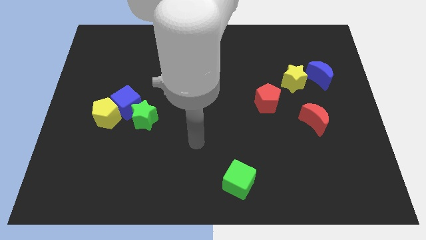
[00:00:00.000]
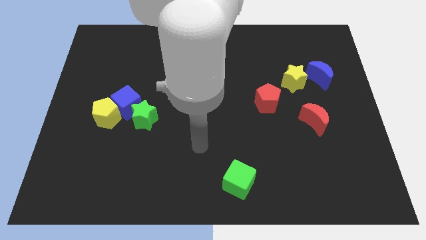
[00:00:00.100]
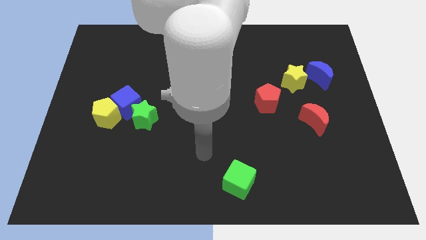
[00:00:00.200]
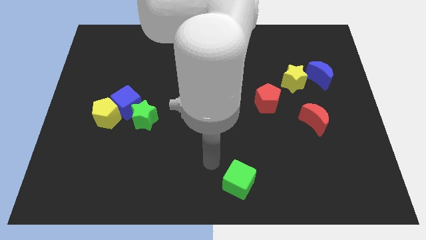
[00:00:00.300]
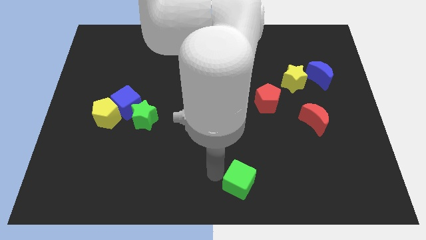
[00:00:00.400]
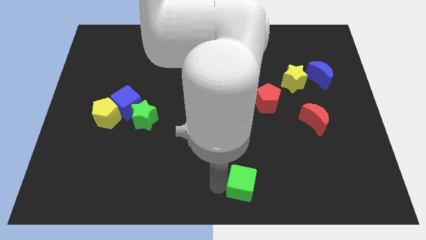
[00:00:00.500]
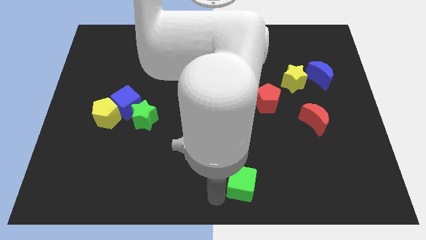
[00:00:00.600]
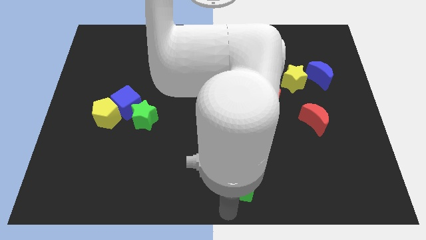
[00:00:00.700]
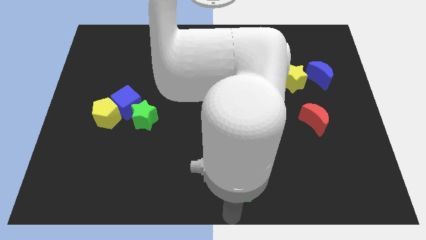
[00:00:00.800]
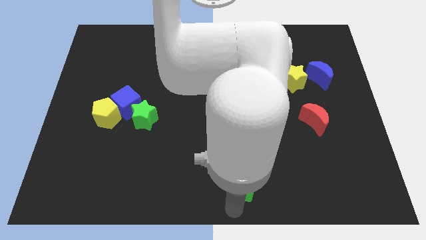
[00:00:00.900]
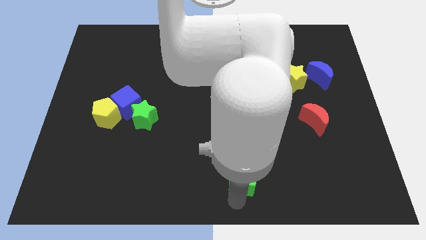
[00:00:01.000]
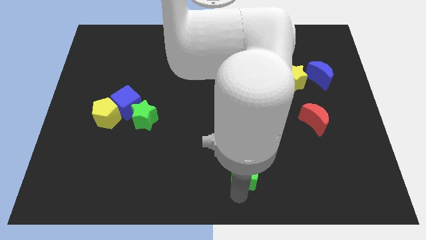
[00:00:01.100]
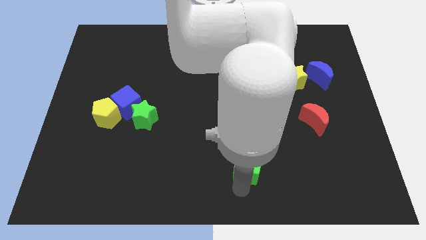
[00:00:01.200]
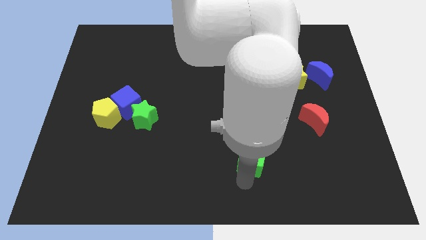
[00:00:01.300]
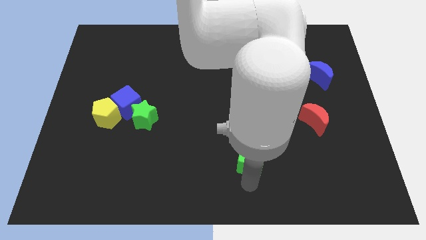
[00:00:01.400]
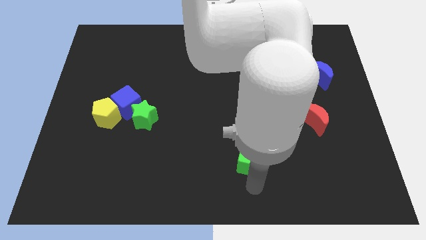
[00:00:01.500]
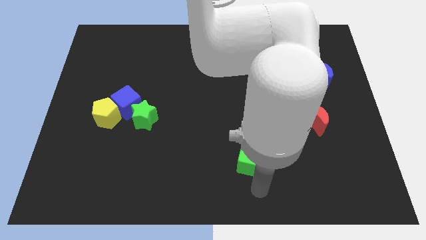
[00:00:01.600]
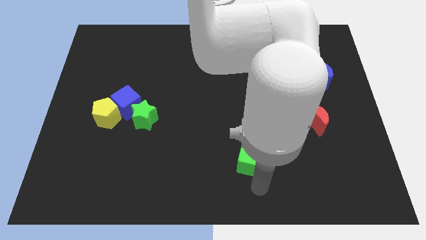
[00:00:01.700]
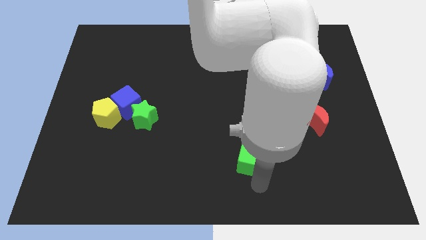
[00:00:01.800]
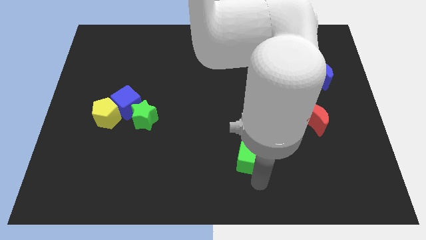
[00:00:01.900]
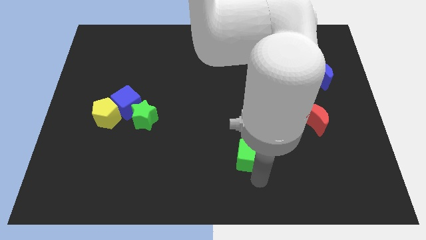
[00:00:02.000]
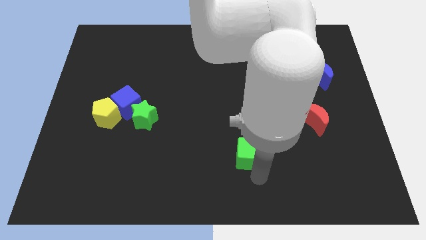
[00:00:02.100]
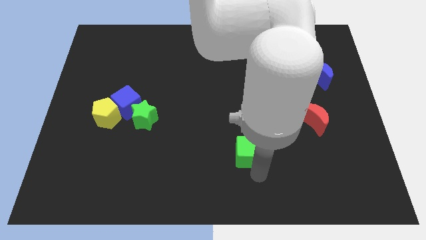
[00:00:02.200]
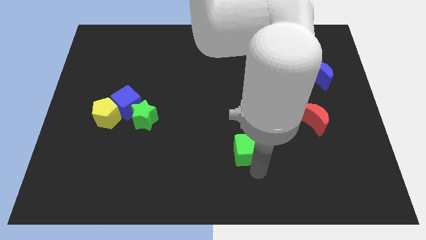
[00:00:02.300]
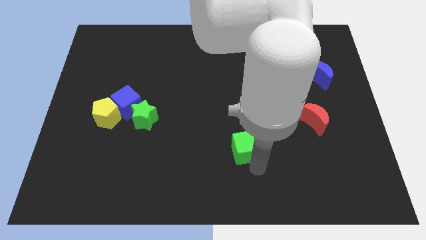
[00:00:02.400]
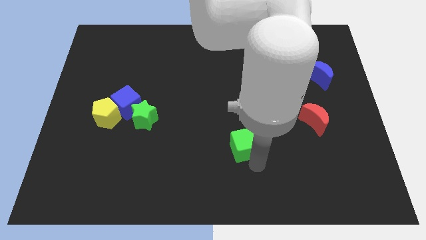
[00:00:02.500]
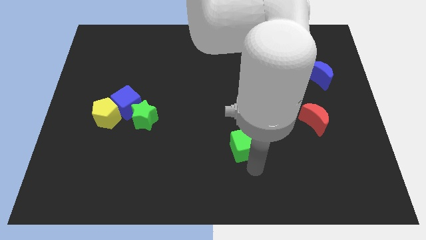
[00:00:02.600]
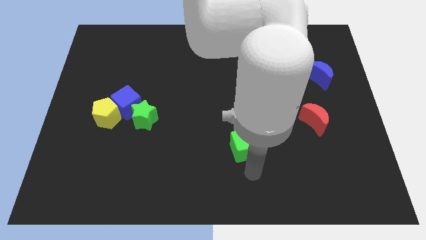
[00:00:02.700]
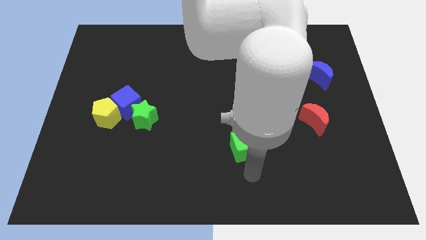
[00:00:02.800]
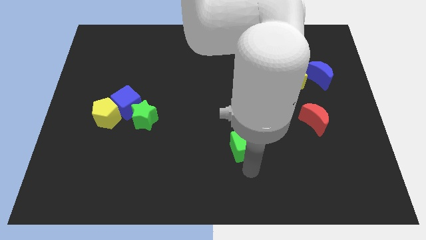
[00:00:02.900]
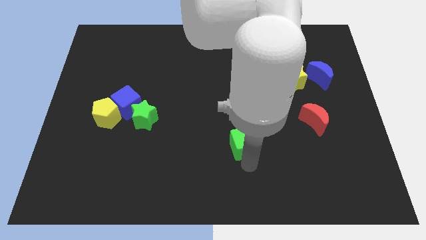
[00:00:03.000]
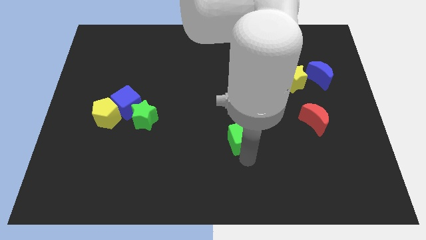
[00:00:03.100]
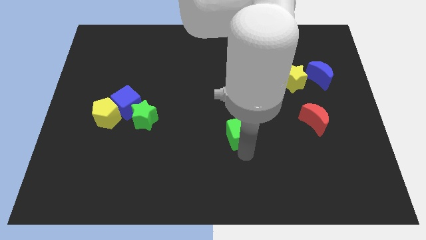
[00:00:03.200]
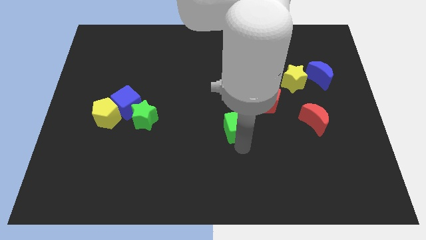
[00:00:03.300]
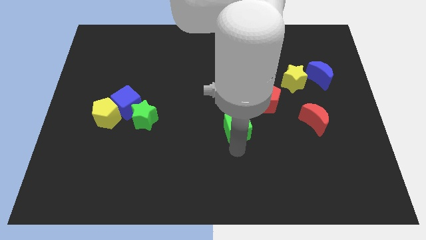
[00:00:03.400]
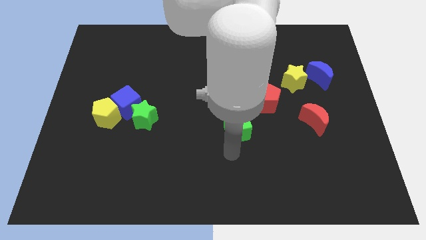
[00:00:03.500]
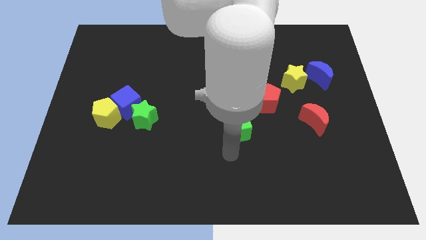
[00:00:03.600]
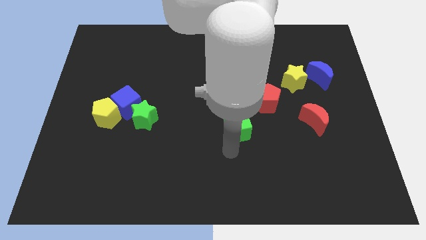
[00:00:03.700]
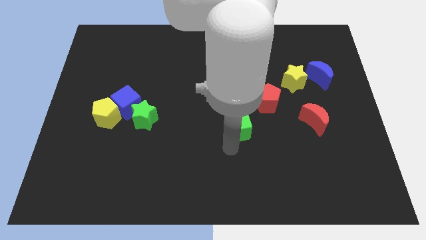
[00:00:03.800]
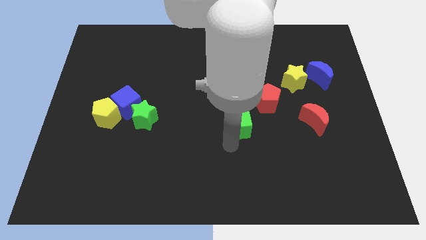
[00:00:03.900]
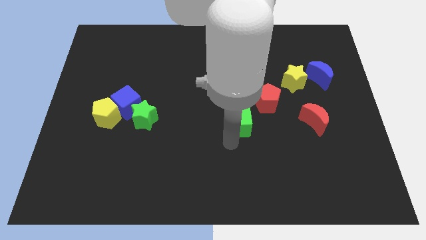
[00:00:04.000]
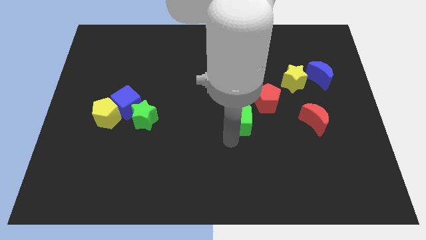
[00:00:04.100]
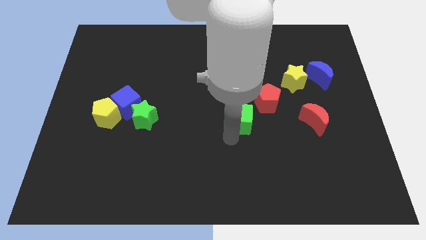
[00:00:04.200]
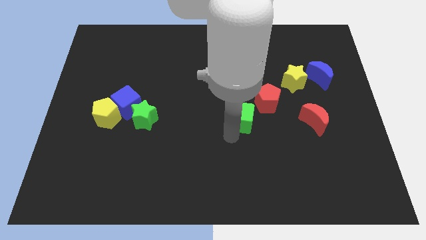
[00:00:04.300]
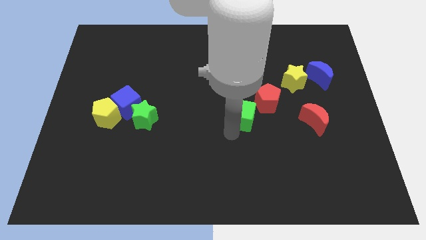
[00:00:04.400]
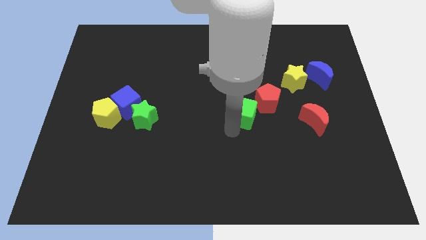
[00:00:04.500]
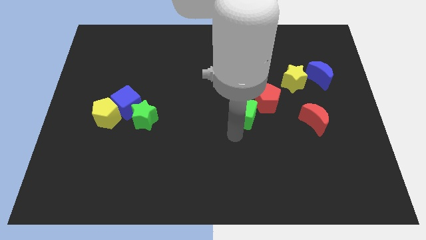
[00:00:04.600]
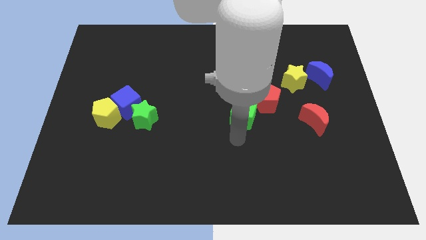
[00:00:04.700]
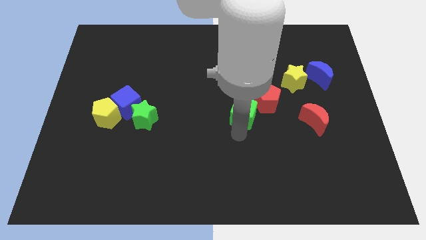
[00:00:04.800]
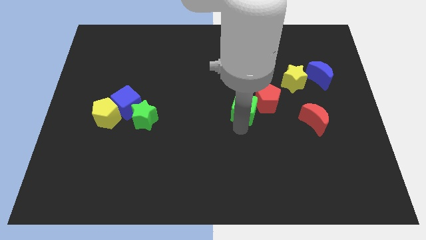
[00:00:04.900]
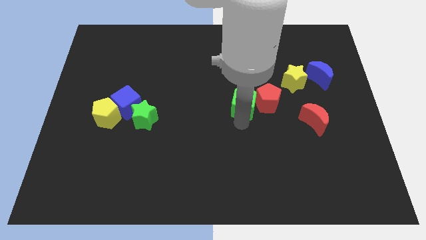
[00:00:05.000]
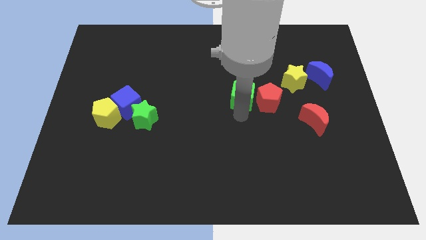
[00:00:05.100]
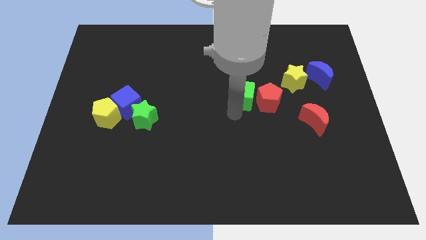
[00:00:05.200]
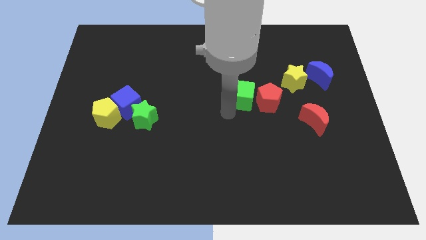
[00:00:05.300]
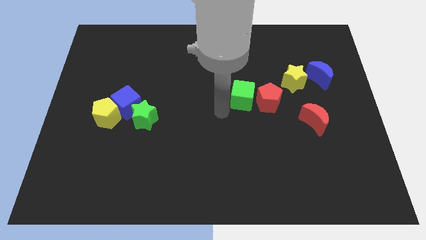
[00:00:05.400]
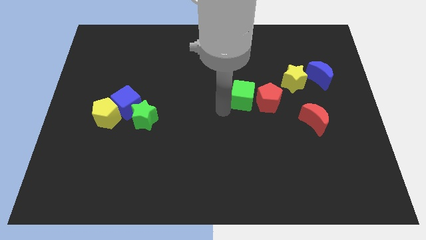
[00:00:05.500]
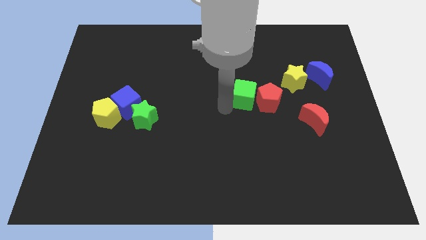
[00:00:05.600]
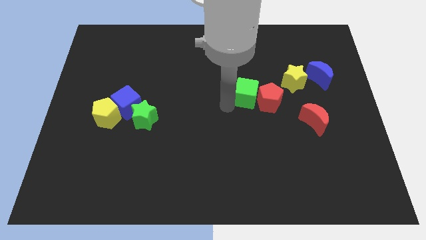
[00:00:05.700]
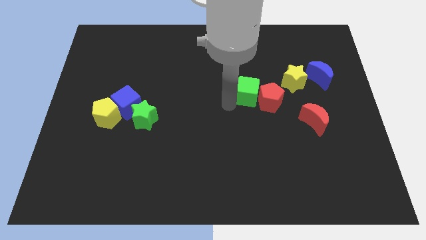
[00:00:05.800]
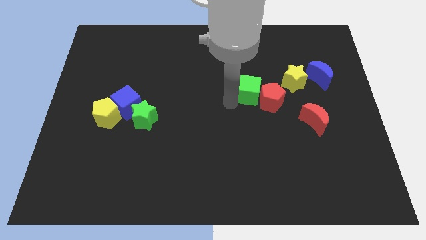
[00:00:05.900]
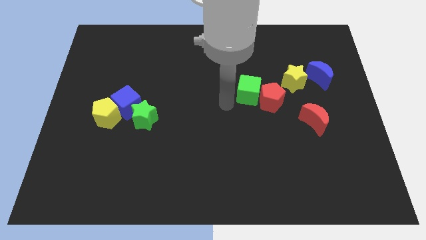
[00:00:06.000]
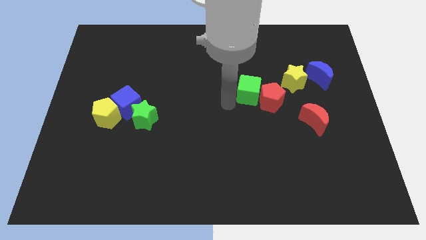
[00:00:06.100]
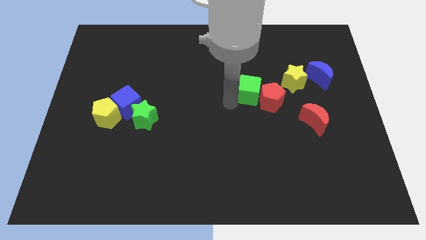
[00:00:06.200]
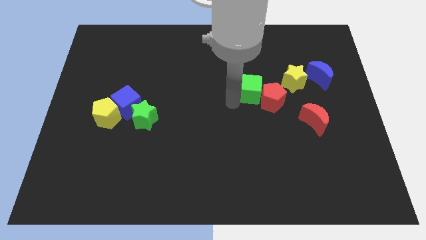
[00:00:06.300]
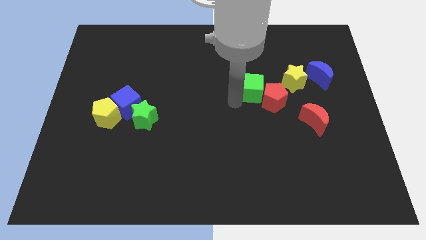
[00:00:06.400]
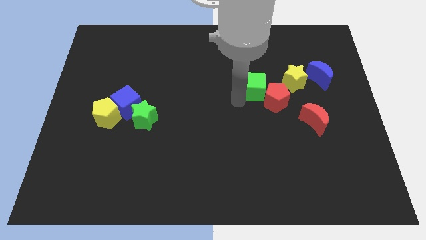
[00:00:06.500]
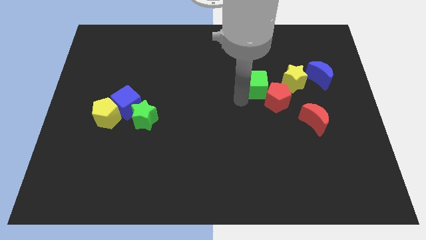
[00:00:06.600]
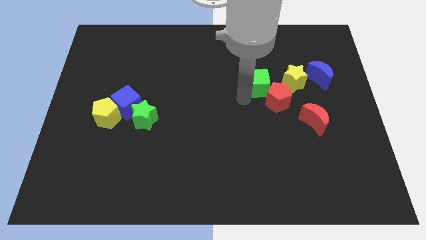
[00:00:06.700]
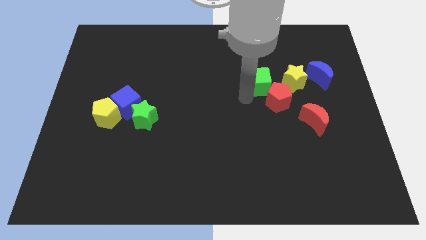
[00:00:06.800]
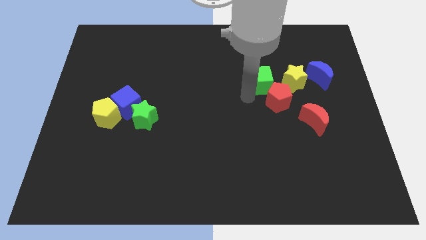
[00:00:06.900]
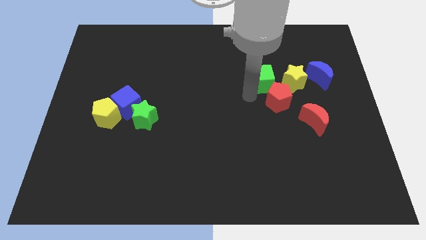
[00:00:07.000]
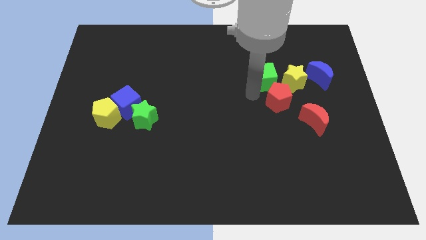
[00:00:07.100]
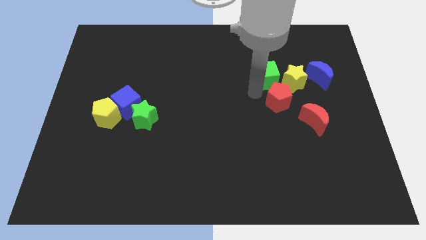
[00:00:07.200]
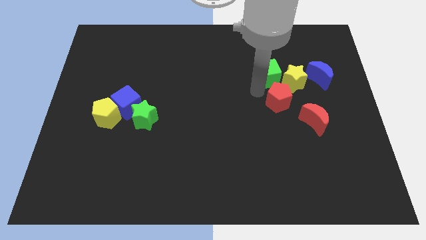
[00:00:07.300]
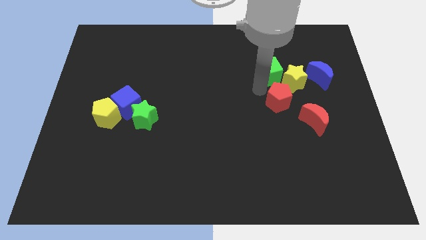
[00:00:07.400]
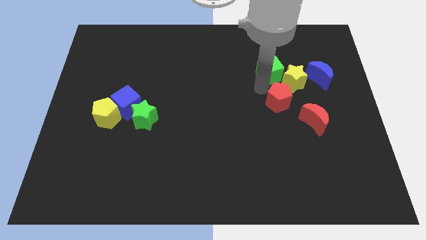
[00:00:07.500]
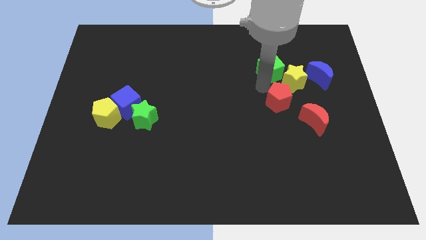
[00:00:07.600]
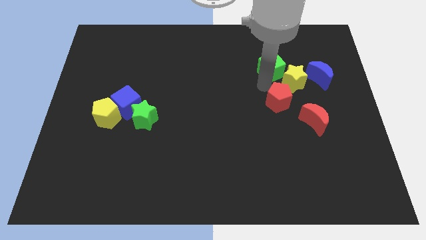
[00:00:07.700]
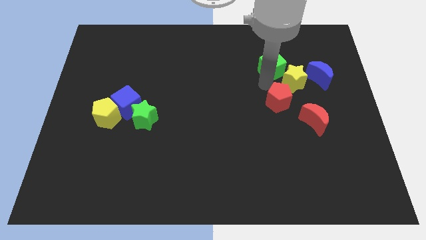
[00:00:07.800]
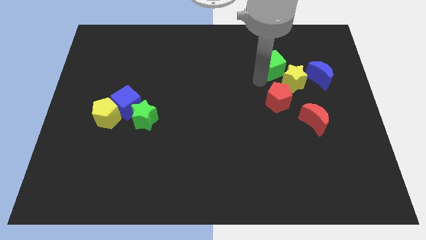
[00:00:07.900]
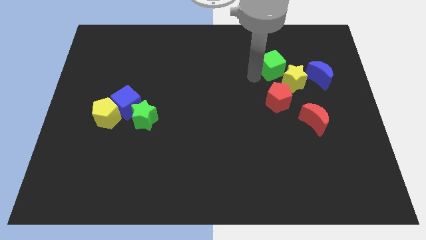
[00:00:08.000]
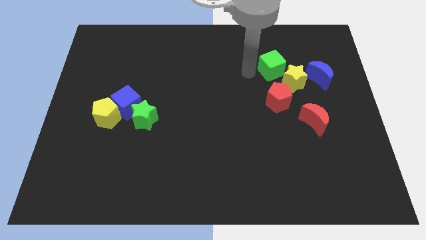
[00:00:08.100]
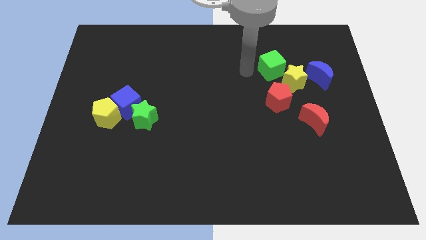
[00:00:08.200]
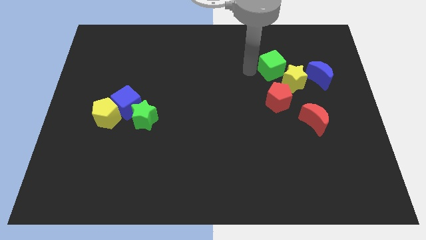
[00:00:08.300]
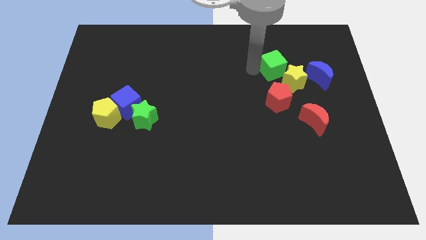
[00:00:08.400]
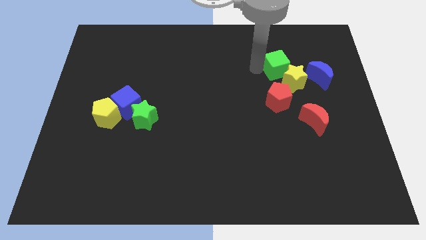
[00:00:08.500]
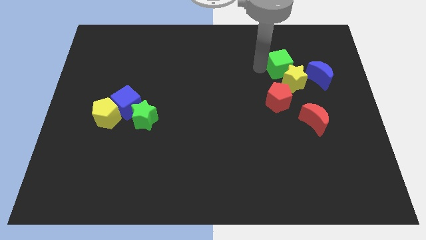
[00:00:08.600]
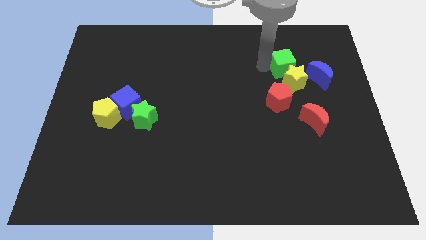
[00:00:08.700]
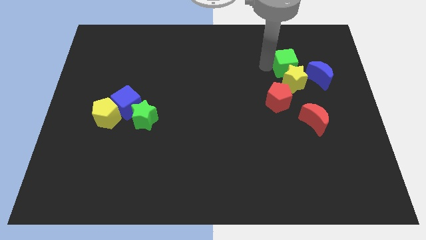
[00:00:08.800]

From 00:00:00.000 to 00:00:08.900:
slide the green cube to the top right of the yellow star
